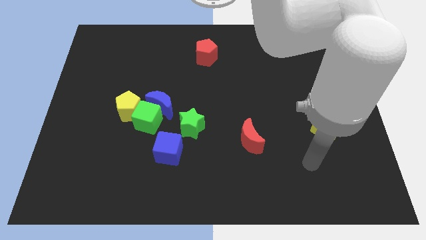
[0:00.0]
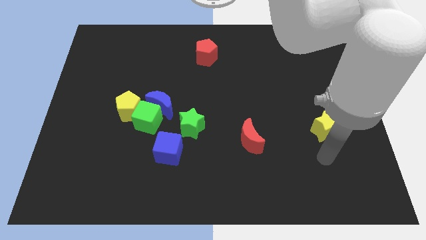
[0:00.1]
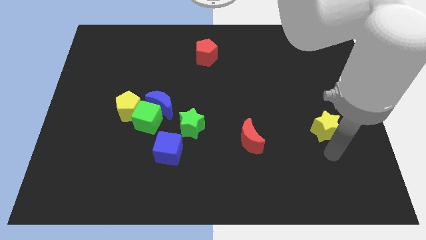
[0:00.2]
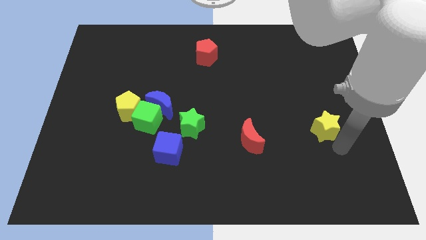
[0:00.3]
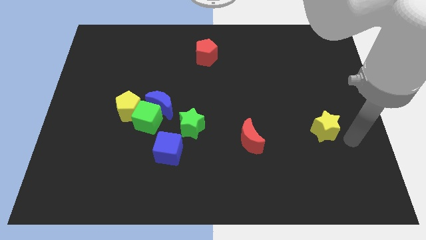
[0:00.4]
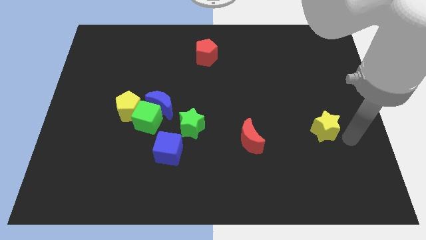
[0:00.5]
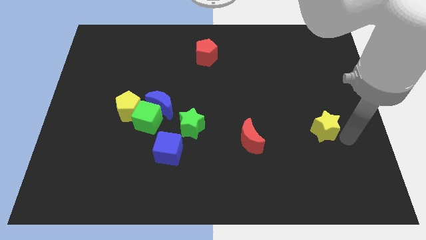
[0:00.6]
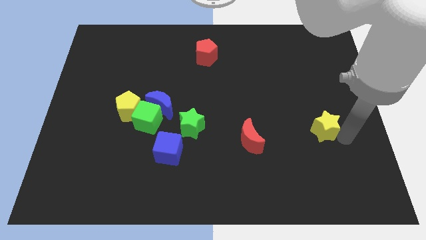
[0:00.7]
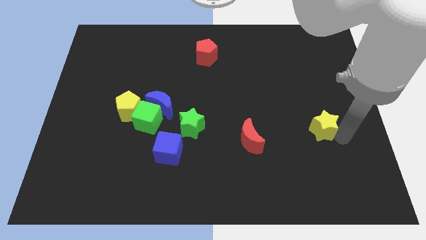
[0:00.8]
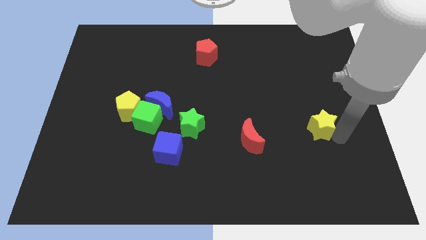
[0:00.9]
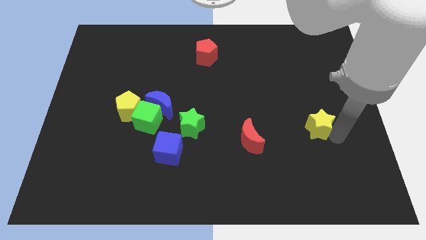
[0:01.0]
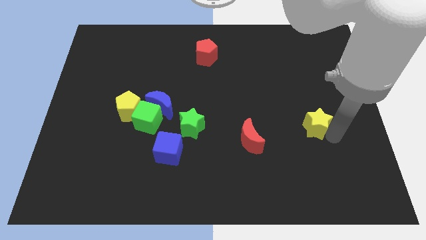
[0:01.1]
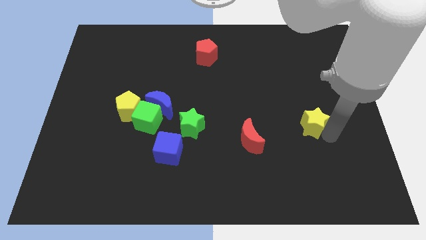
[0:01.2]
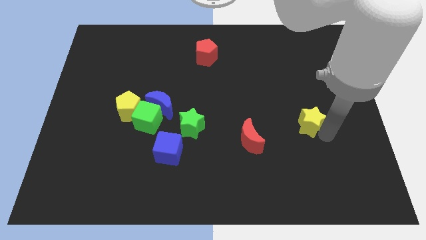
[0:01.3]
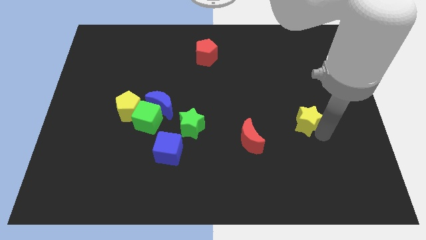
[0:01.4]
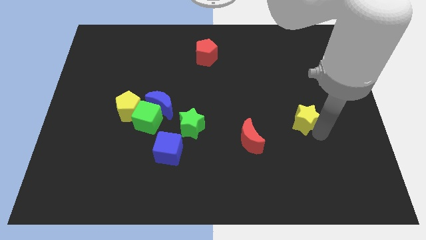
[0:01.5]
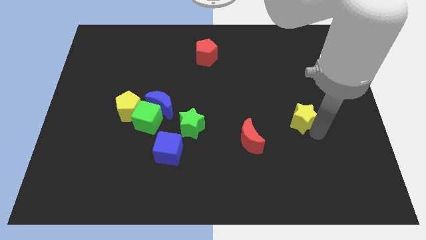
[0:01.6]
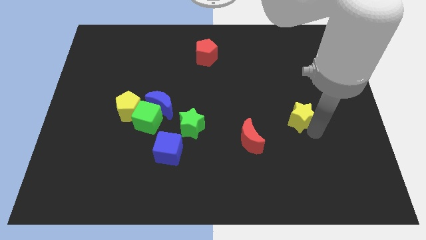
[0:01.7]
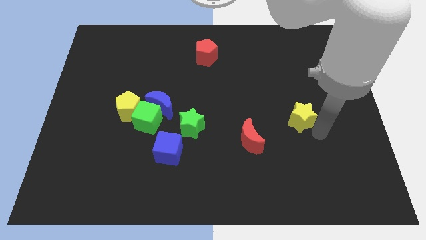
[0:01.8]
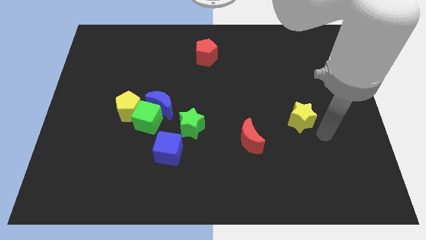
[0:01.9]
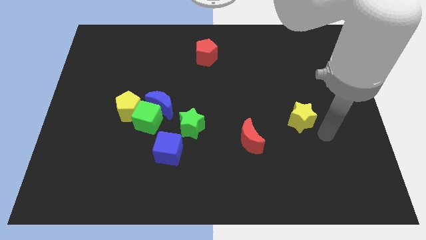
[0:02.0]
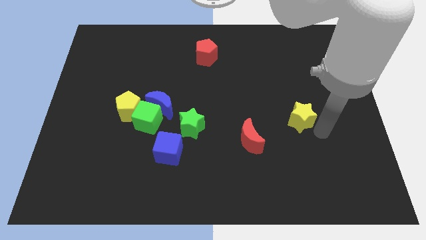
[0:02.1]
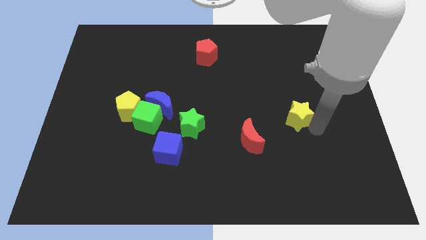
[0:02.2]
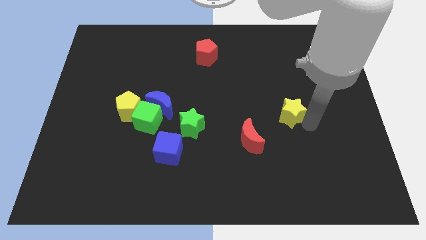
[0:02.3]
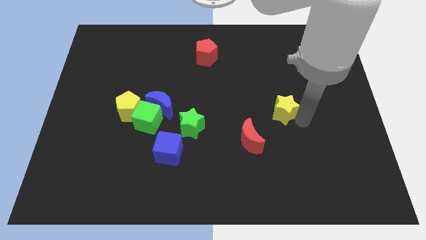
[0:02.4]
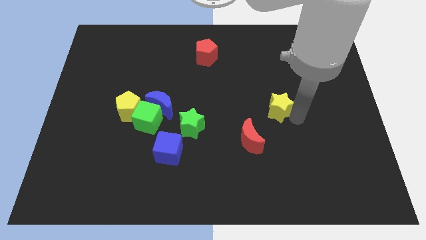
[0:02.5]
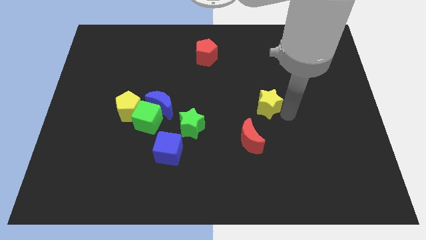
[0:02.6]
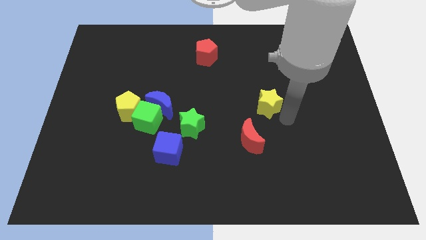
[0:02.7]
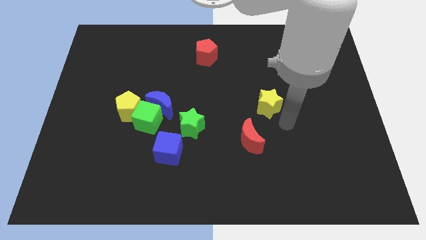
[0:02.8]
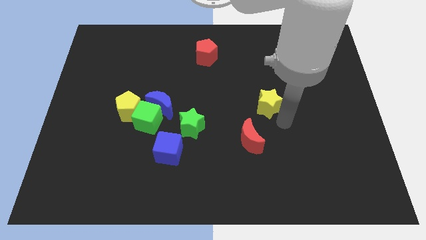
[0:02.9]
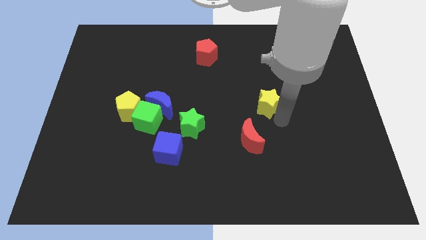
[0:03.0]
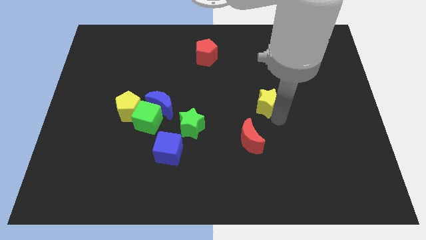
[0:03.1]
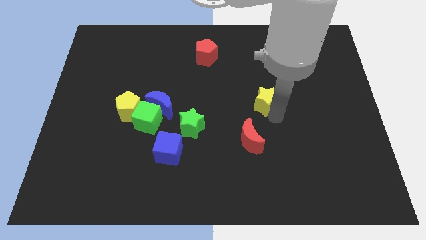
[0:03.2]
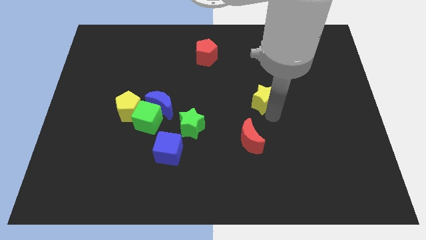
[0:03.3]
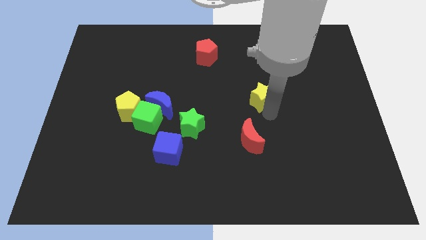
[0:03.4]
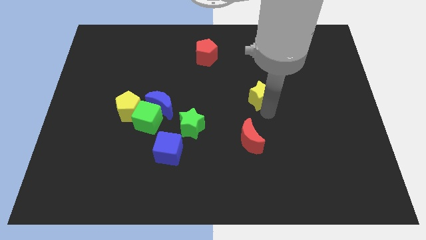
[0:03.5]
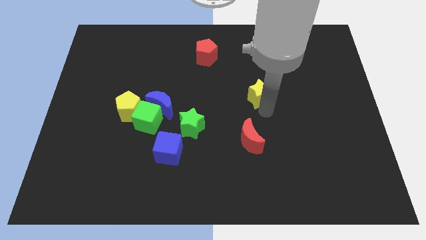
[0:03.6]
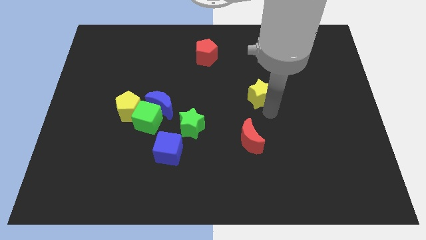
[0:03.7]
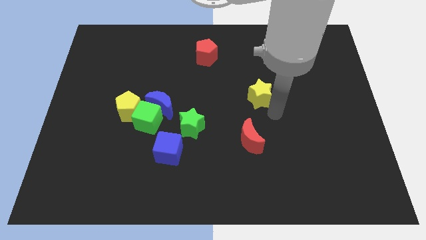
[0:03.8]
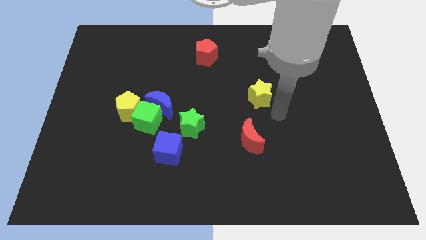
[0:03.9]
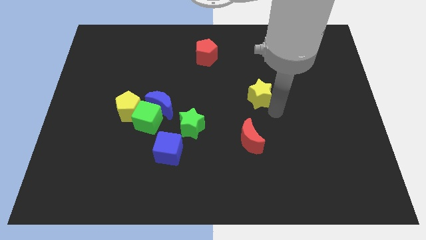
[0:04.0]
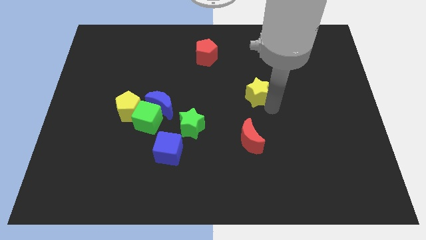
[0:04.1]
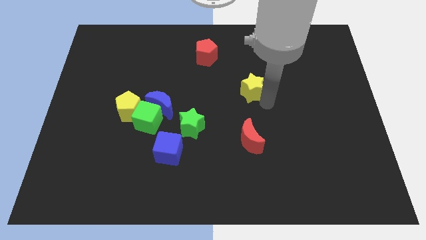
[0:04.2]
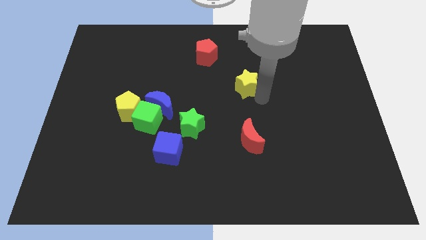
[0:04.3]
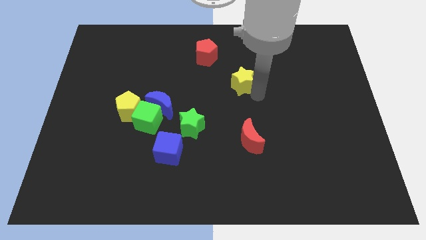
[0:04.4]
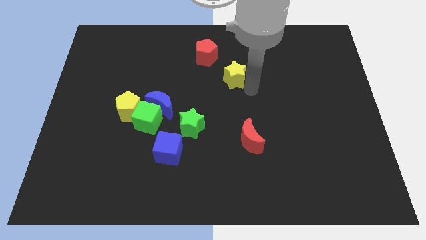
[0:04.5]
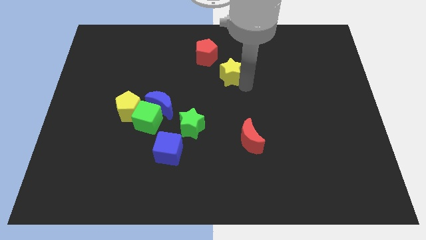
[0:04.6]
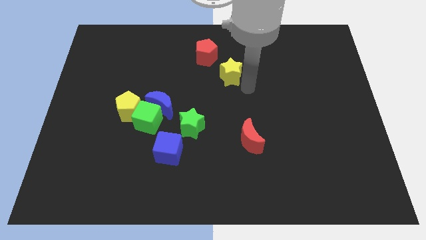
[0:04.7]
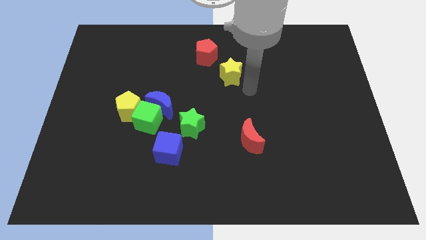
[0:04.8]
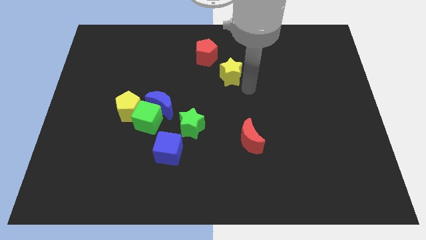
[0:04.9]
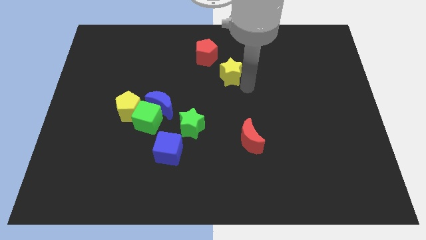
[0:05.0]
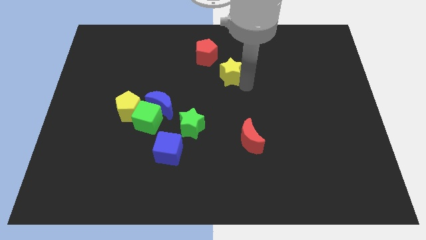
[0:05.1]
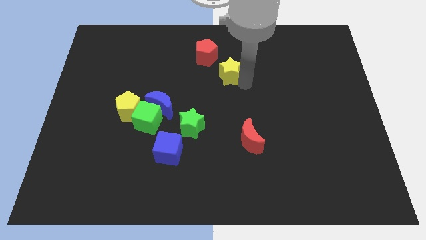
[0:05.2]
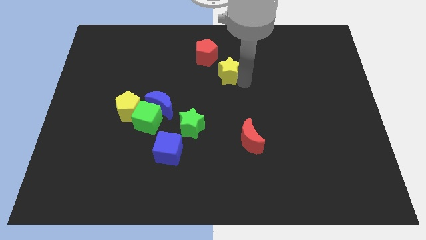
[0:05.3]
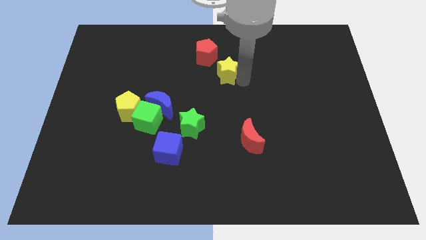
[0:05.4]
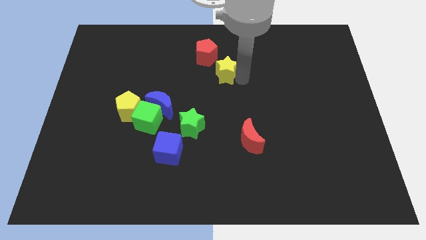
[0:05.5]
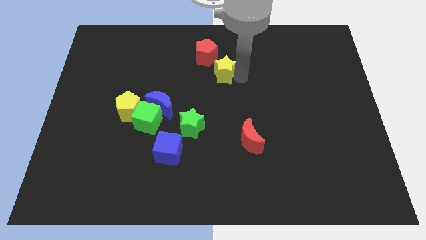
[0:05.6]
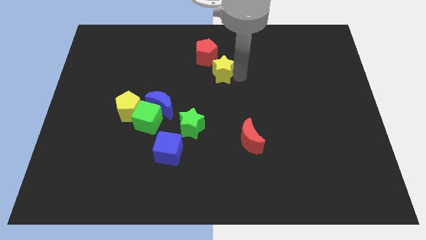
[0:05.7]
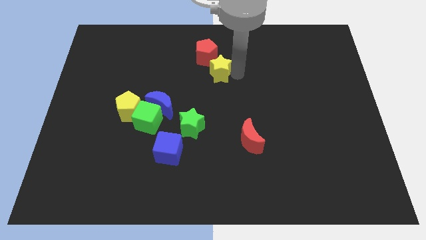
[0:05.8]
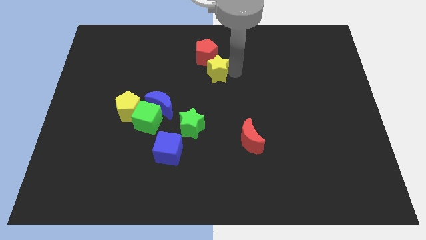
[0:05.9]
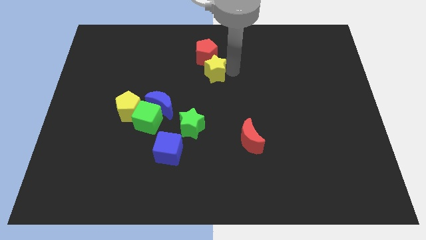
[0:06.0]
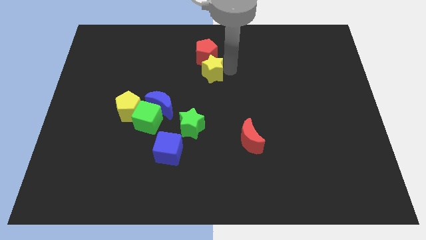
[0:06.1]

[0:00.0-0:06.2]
slide the yellow star towards the red pentagon

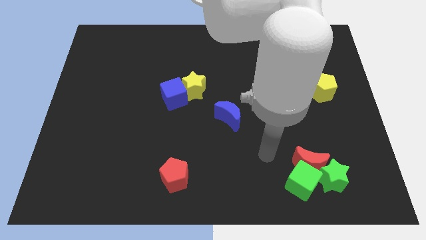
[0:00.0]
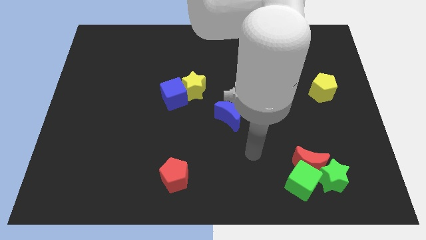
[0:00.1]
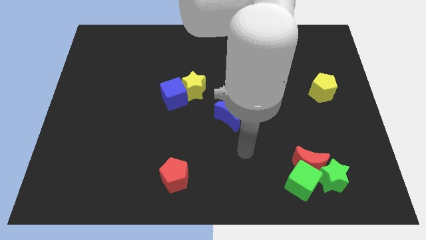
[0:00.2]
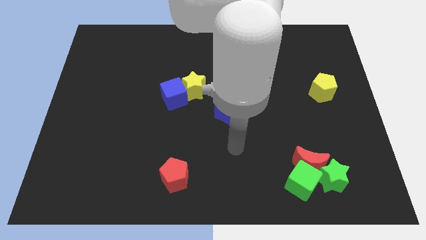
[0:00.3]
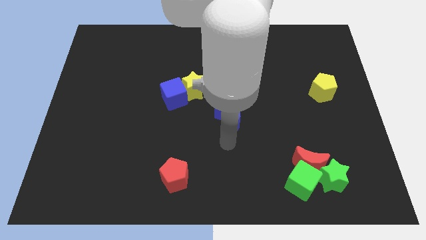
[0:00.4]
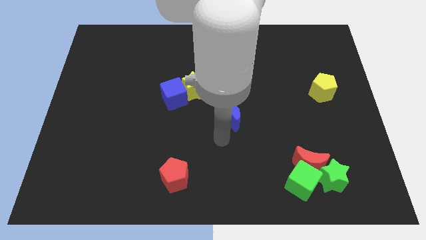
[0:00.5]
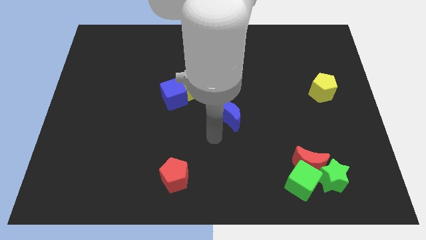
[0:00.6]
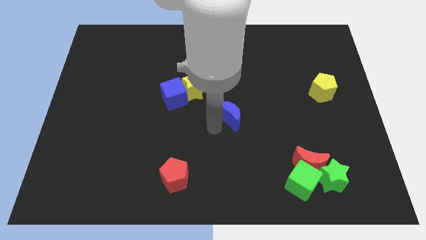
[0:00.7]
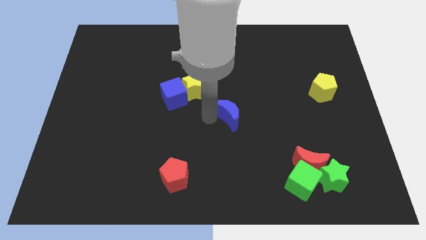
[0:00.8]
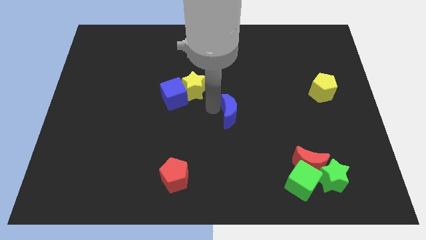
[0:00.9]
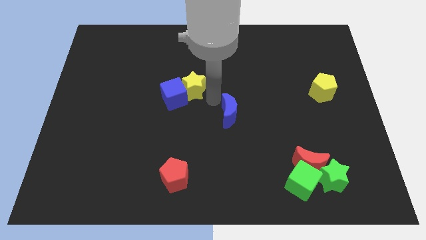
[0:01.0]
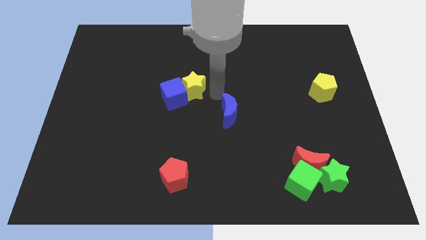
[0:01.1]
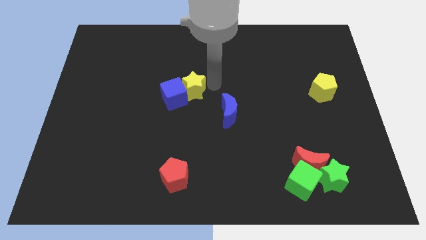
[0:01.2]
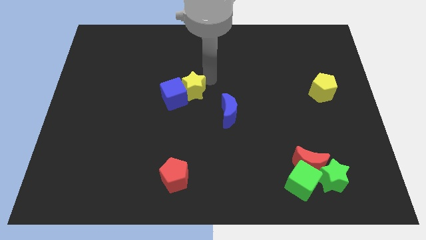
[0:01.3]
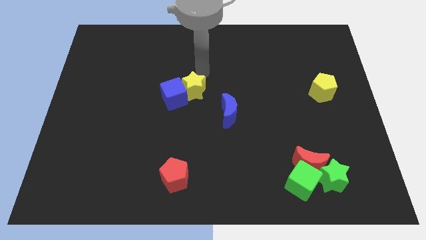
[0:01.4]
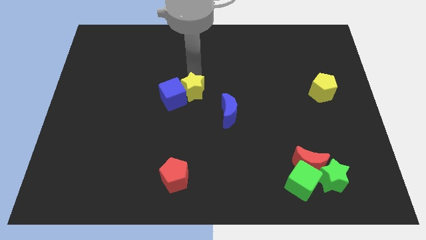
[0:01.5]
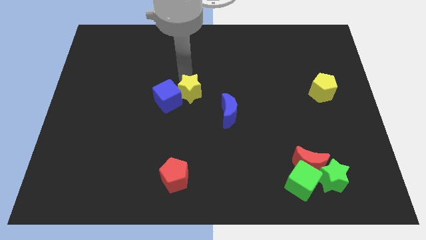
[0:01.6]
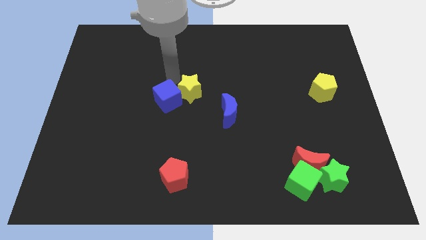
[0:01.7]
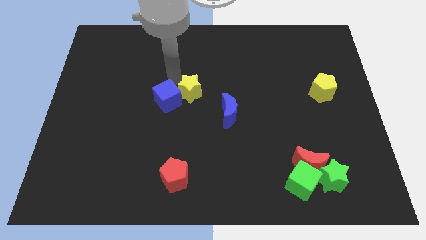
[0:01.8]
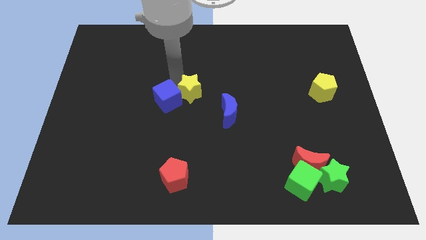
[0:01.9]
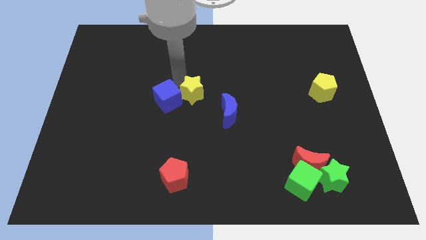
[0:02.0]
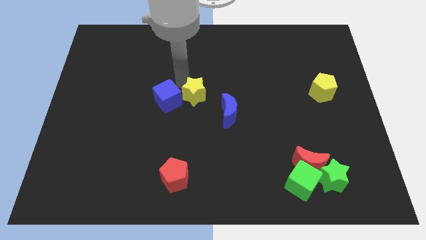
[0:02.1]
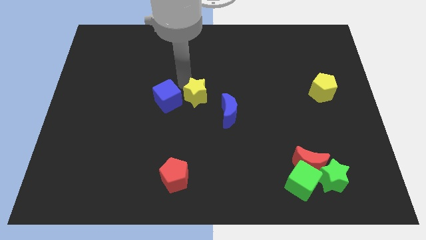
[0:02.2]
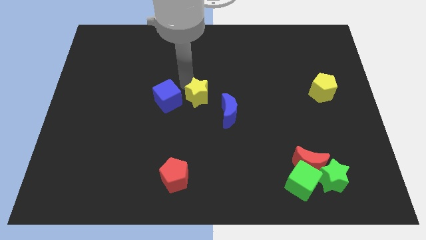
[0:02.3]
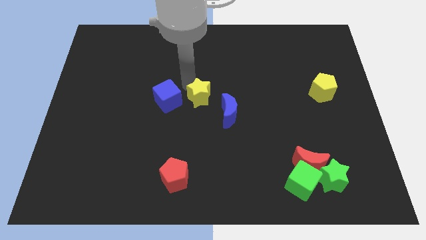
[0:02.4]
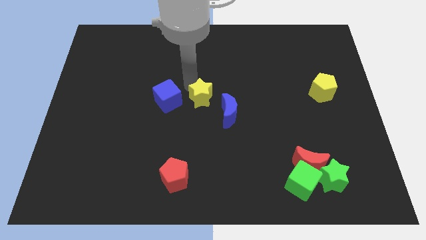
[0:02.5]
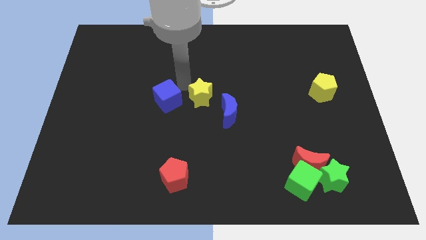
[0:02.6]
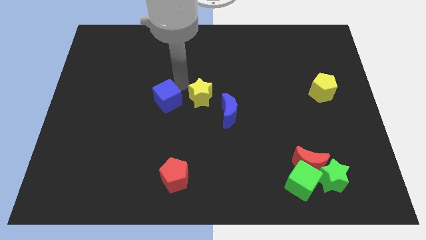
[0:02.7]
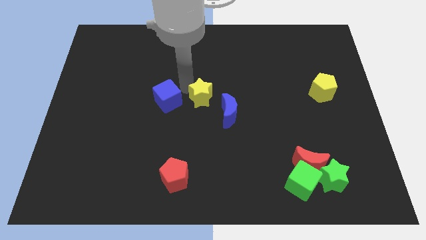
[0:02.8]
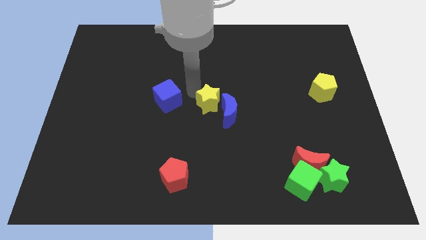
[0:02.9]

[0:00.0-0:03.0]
put the yellow star next to the blue moon
